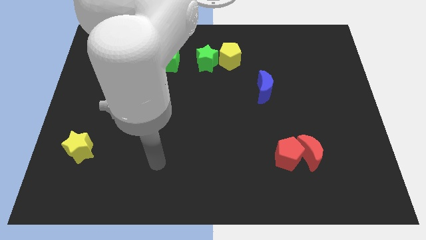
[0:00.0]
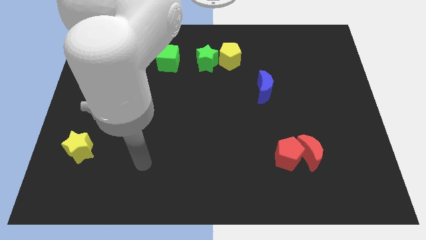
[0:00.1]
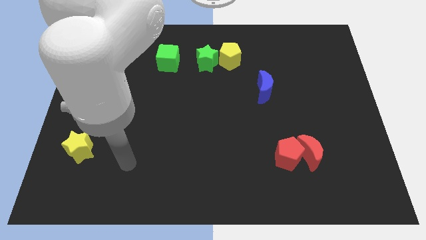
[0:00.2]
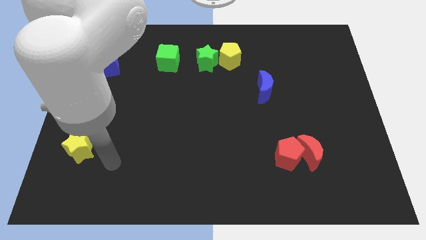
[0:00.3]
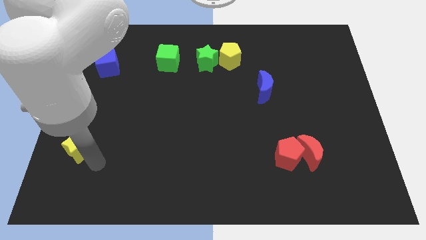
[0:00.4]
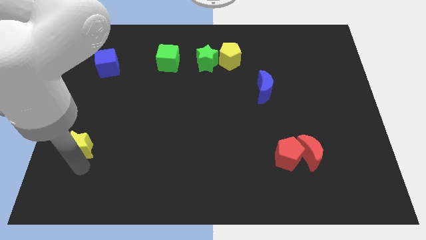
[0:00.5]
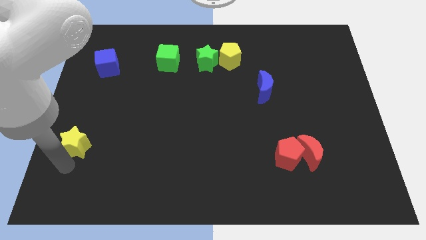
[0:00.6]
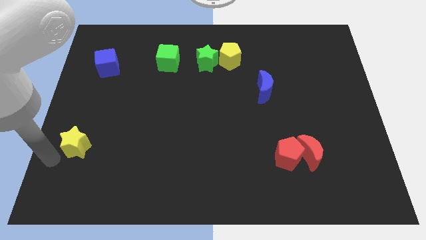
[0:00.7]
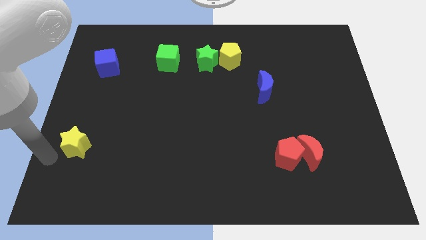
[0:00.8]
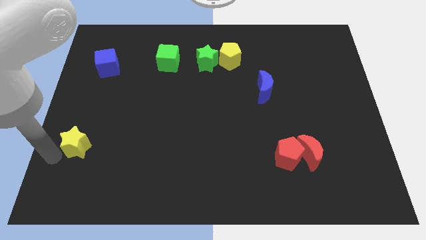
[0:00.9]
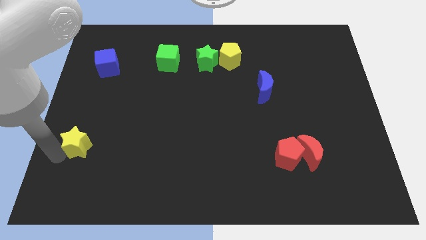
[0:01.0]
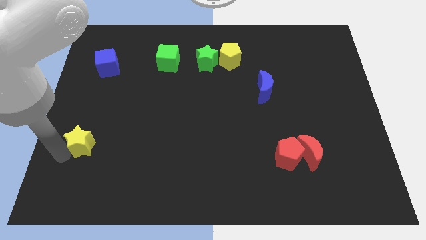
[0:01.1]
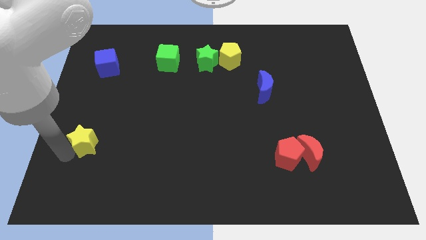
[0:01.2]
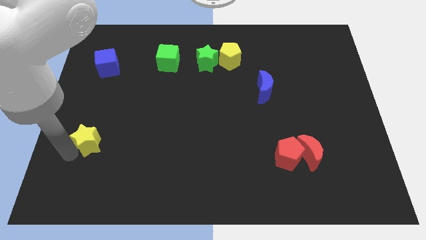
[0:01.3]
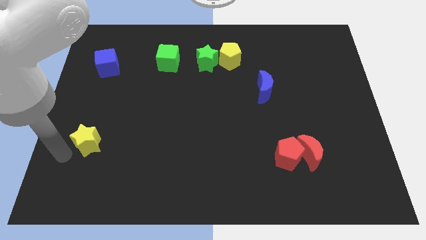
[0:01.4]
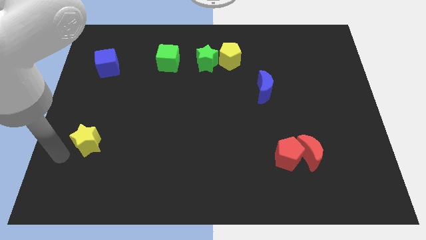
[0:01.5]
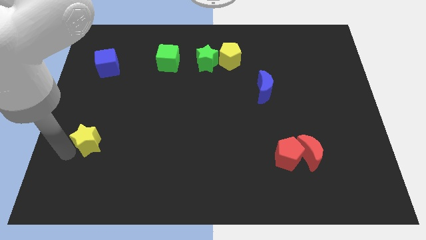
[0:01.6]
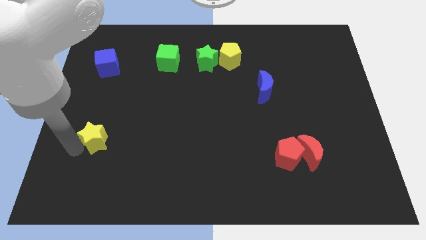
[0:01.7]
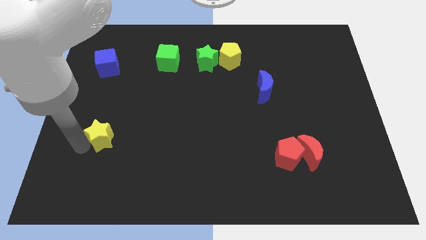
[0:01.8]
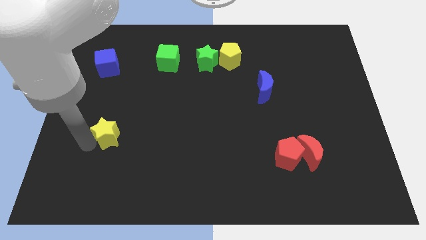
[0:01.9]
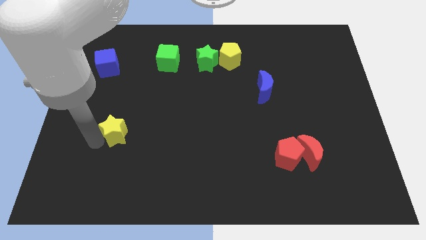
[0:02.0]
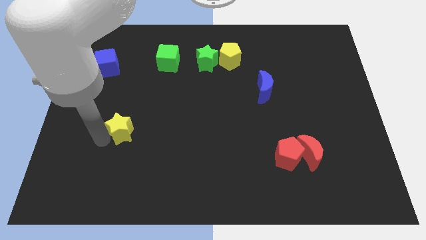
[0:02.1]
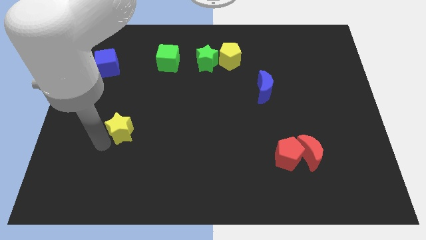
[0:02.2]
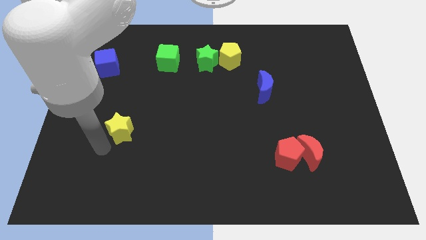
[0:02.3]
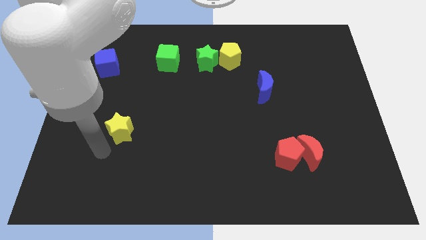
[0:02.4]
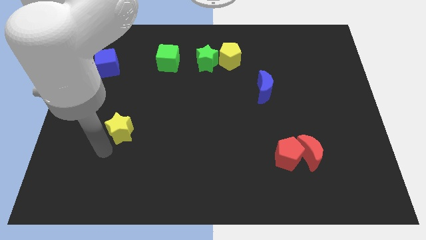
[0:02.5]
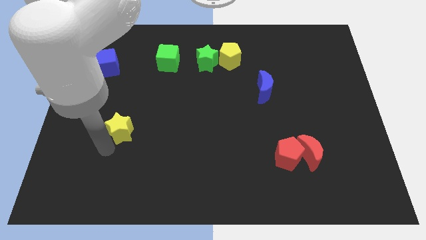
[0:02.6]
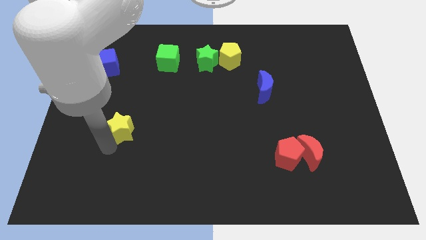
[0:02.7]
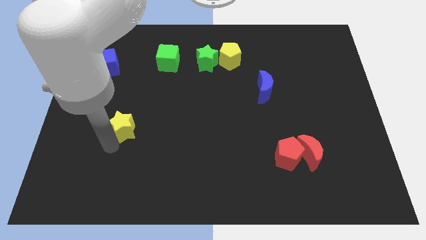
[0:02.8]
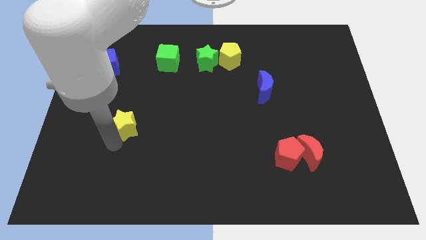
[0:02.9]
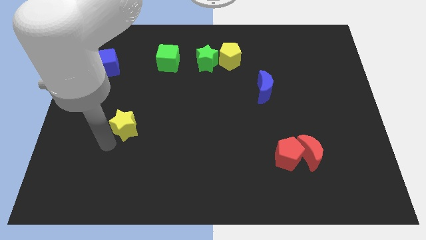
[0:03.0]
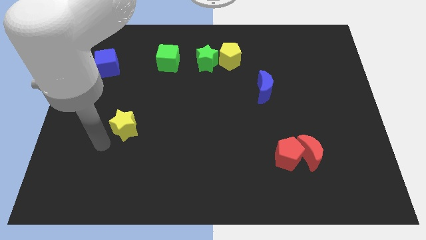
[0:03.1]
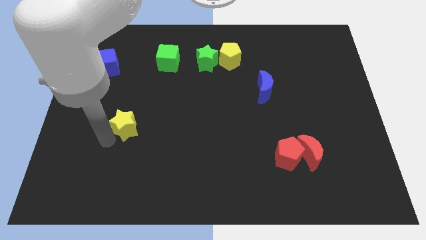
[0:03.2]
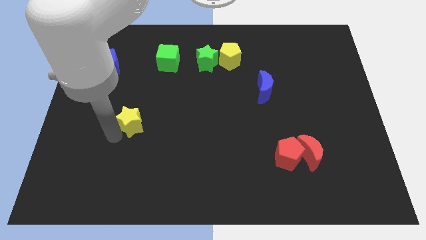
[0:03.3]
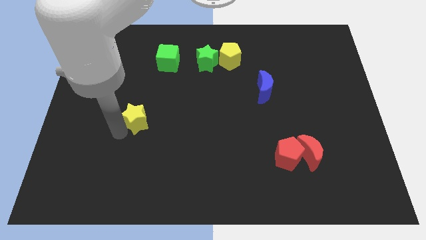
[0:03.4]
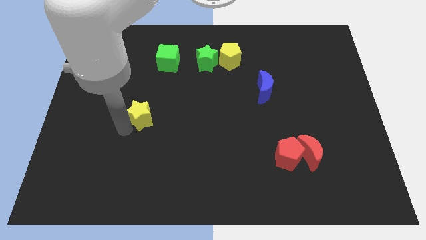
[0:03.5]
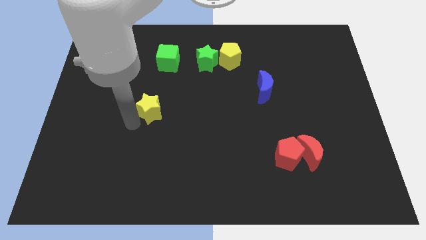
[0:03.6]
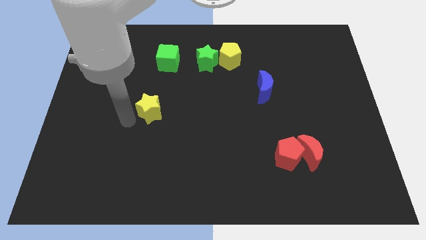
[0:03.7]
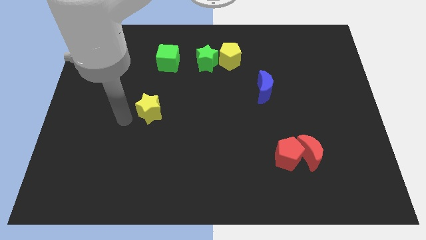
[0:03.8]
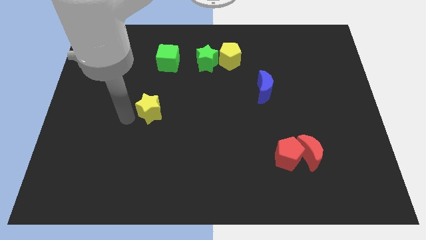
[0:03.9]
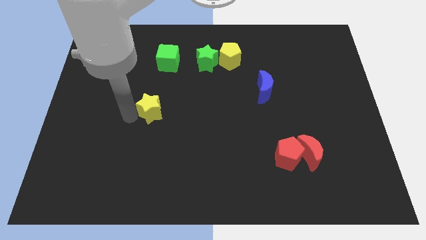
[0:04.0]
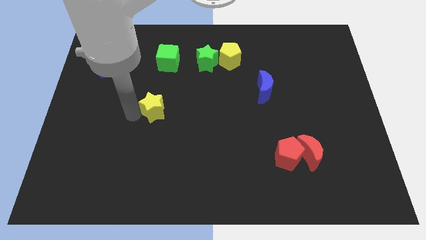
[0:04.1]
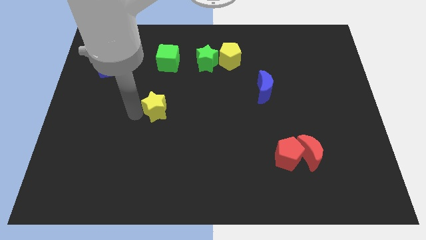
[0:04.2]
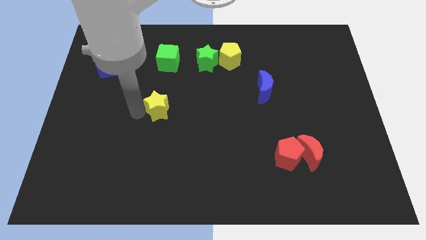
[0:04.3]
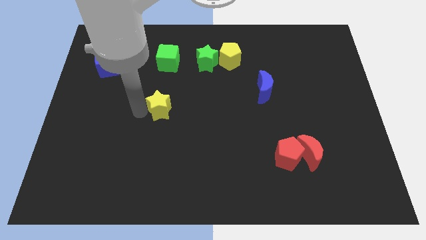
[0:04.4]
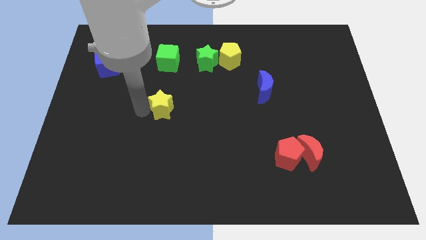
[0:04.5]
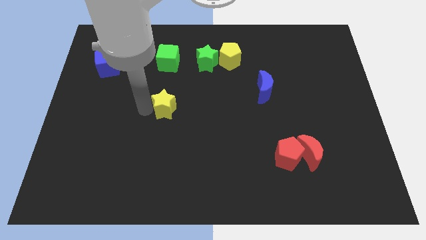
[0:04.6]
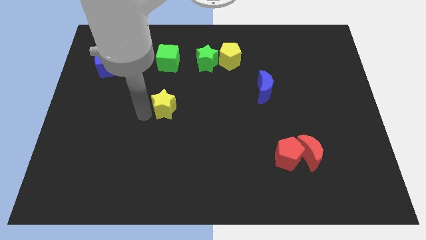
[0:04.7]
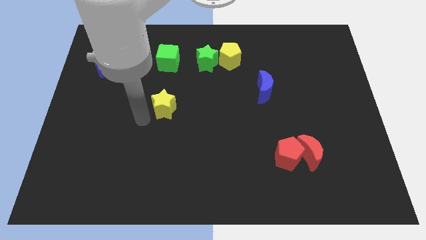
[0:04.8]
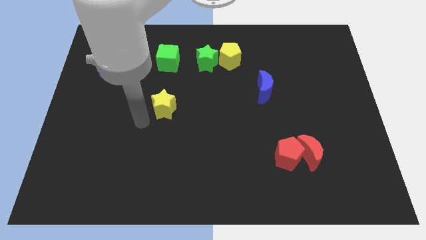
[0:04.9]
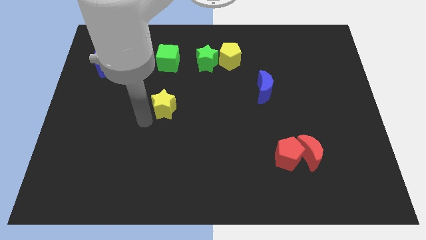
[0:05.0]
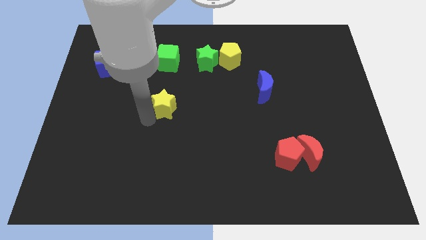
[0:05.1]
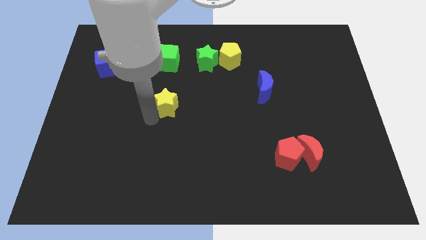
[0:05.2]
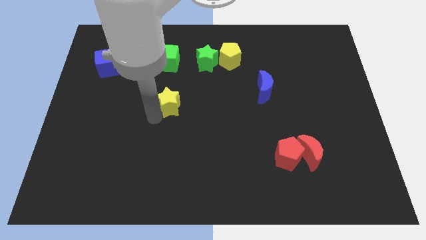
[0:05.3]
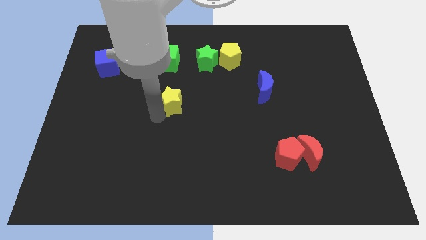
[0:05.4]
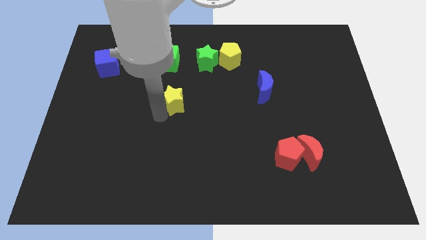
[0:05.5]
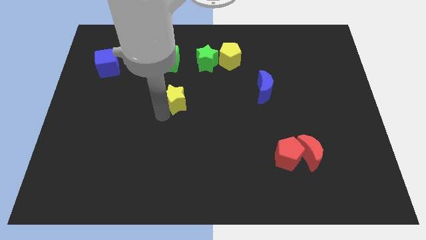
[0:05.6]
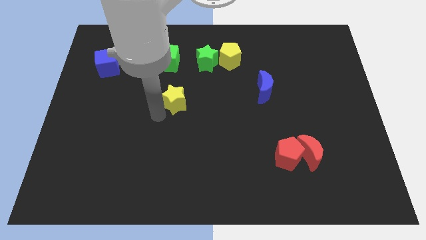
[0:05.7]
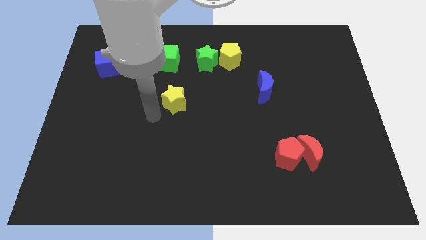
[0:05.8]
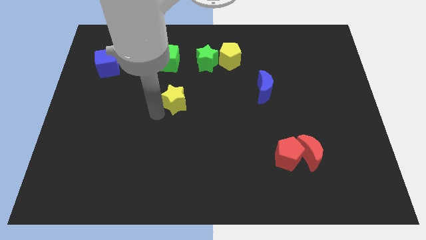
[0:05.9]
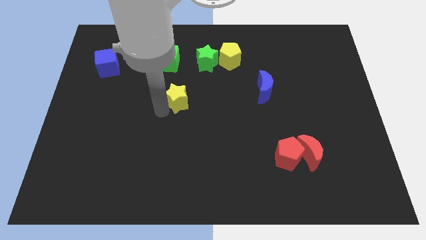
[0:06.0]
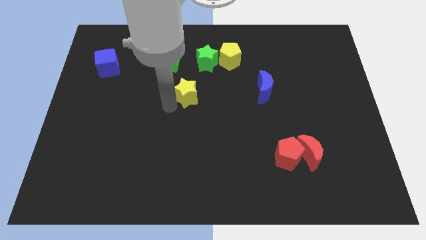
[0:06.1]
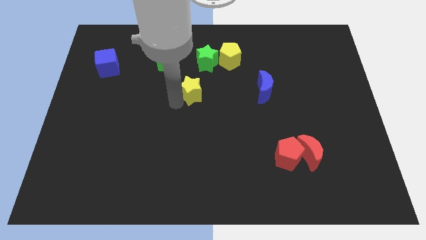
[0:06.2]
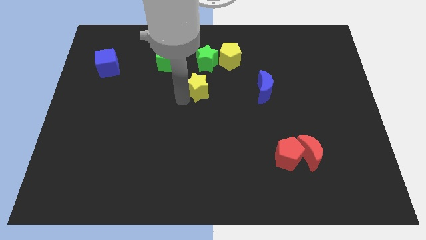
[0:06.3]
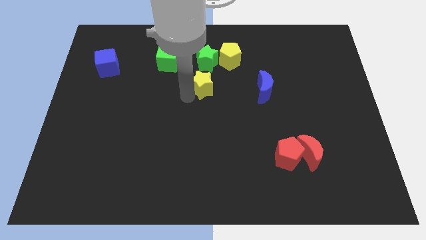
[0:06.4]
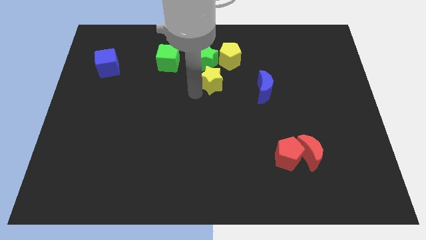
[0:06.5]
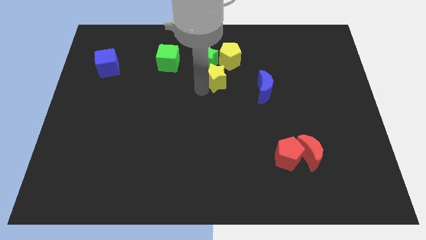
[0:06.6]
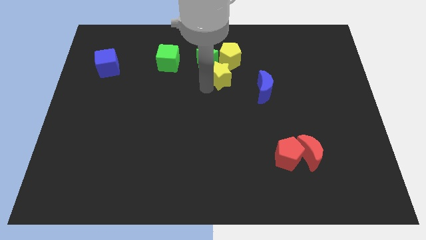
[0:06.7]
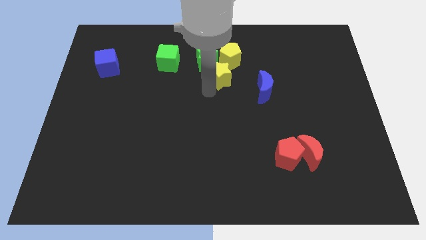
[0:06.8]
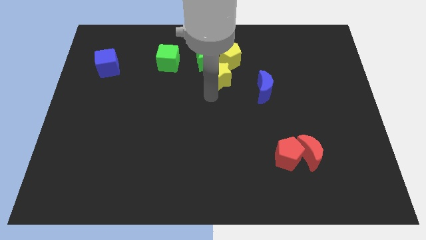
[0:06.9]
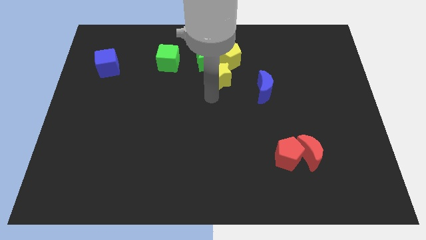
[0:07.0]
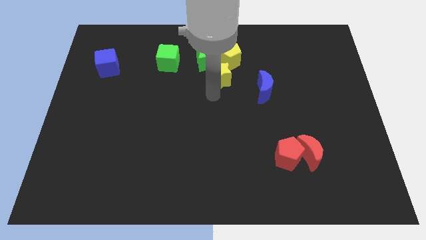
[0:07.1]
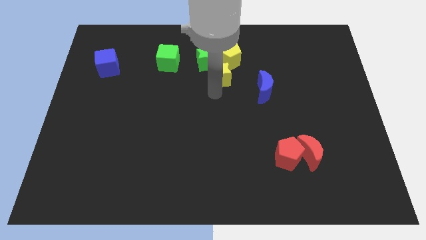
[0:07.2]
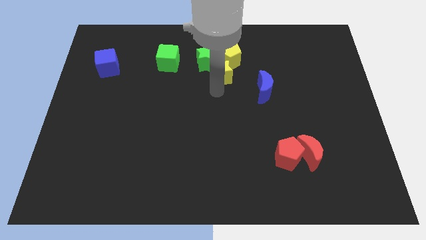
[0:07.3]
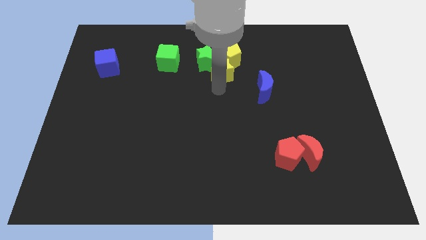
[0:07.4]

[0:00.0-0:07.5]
push the yellow star to the yellow pentagon
